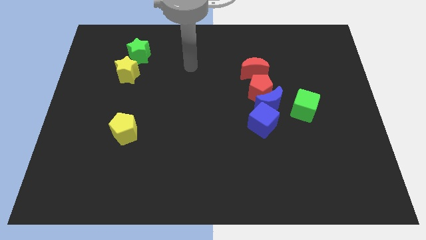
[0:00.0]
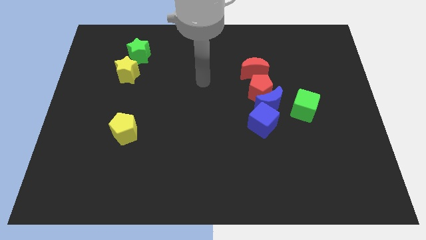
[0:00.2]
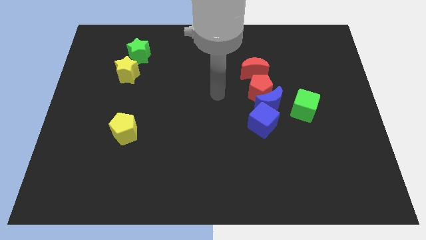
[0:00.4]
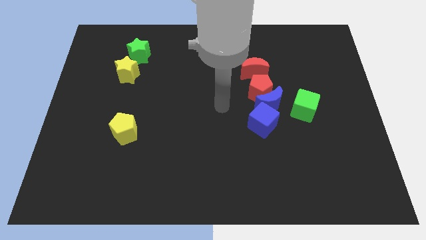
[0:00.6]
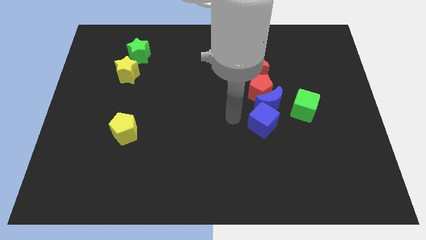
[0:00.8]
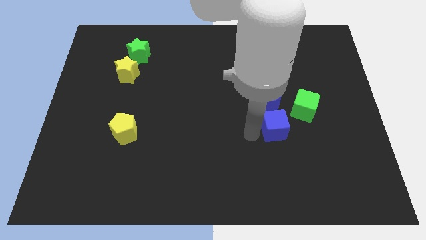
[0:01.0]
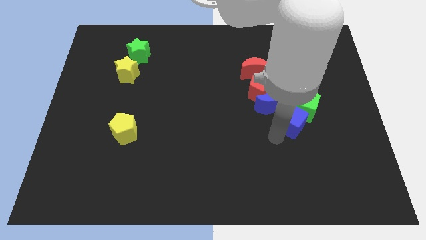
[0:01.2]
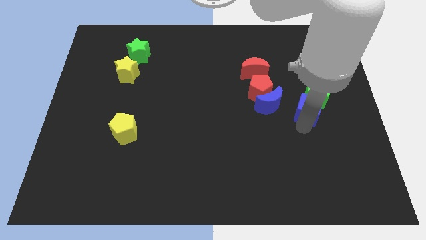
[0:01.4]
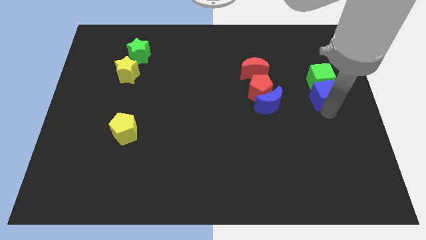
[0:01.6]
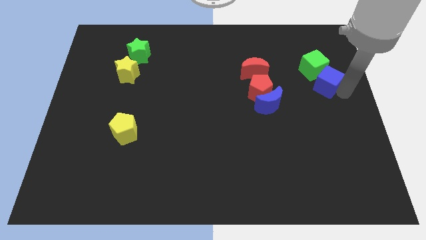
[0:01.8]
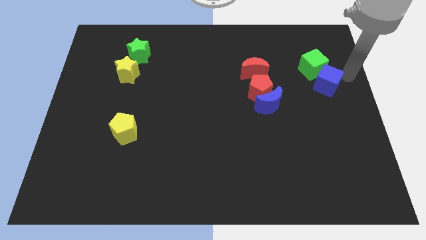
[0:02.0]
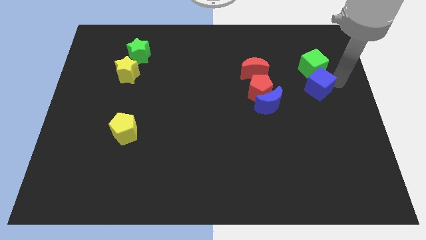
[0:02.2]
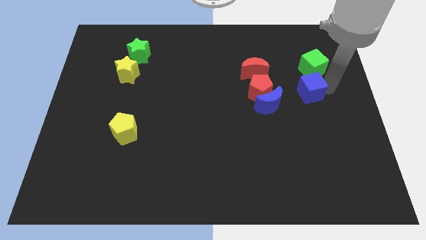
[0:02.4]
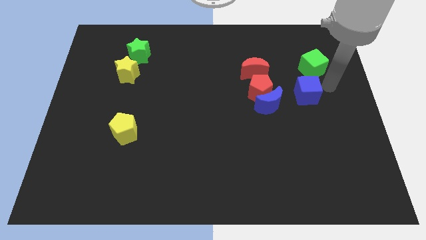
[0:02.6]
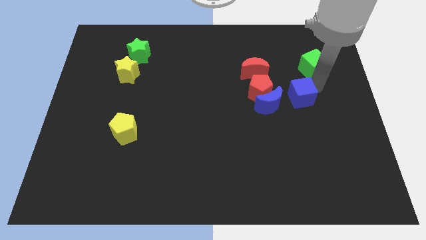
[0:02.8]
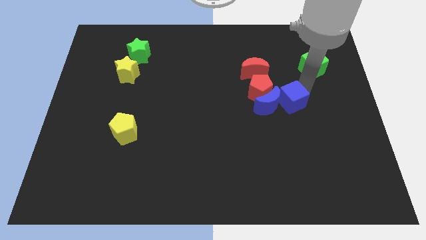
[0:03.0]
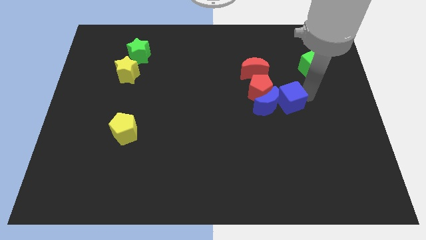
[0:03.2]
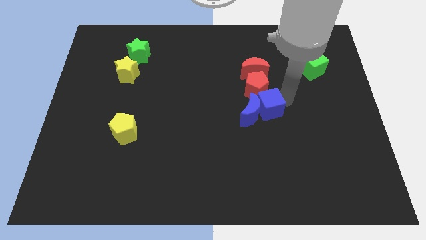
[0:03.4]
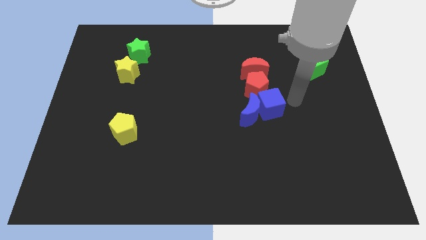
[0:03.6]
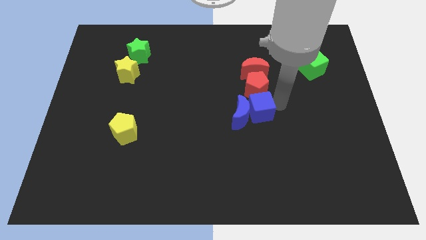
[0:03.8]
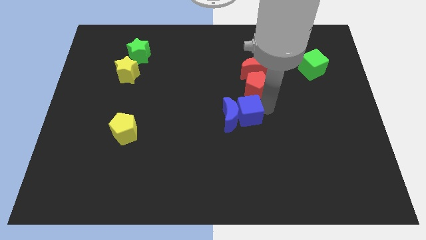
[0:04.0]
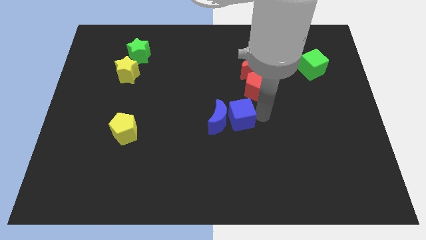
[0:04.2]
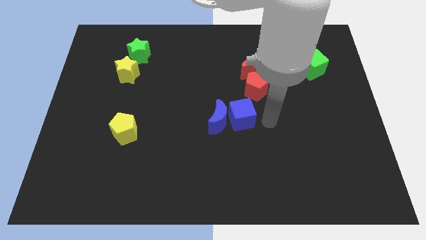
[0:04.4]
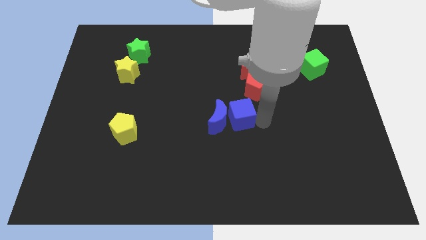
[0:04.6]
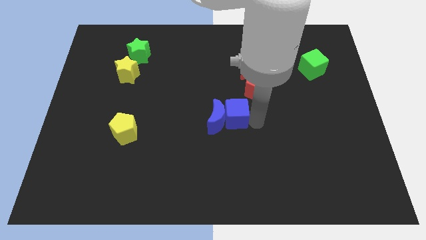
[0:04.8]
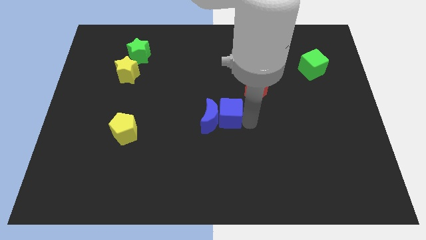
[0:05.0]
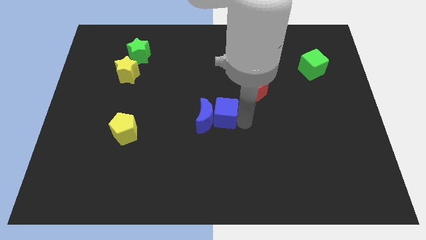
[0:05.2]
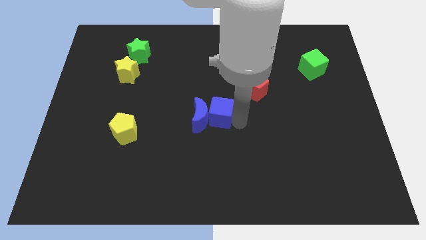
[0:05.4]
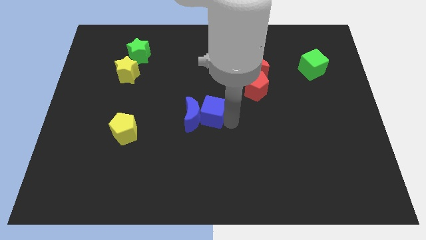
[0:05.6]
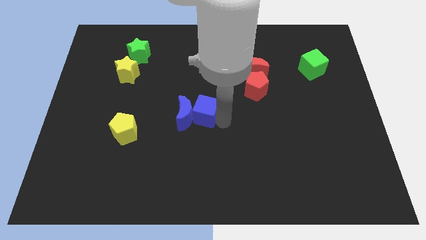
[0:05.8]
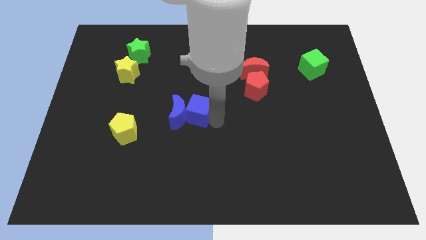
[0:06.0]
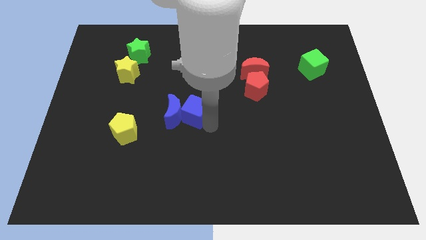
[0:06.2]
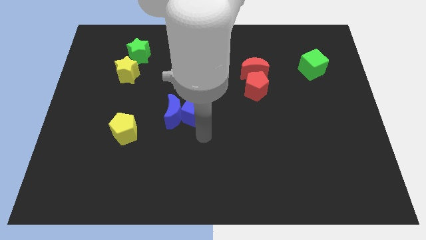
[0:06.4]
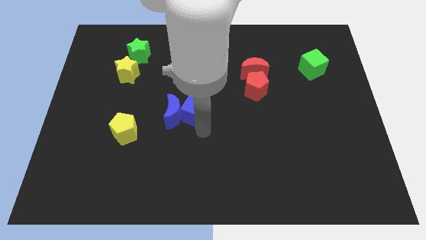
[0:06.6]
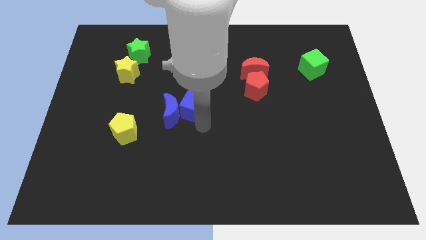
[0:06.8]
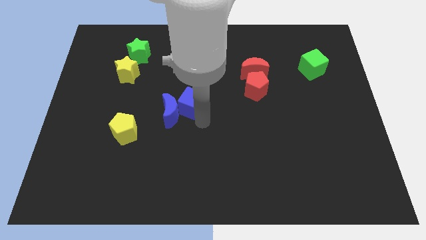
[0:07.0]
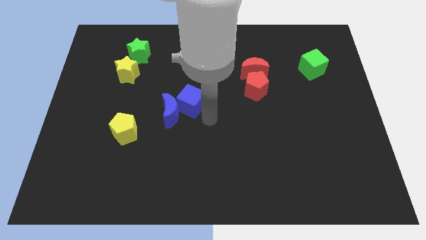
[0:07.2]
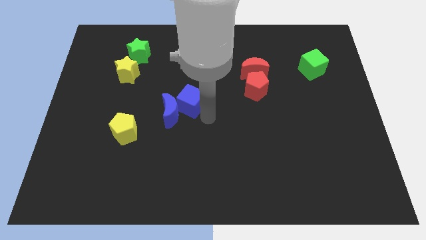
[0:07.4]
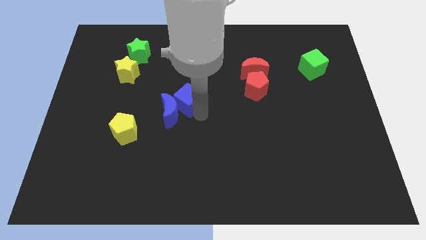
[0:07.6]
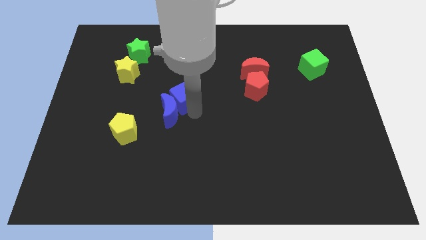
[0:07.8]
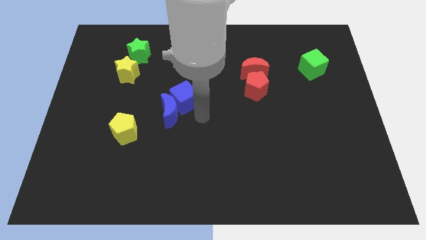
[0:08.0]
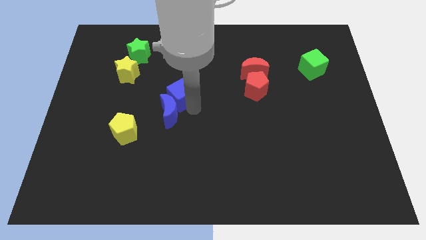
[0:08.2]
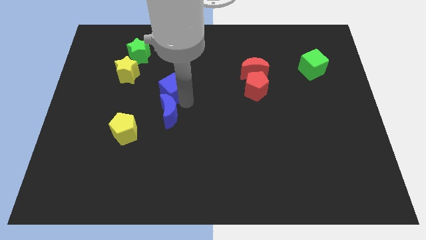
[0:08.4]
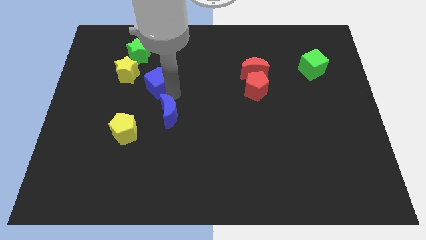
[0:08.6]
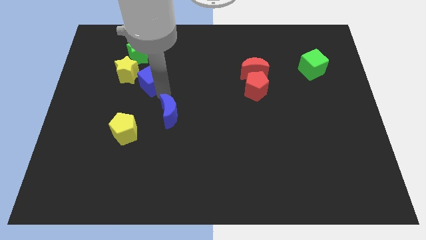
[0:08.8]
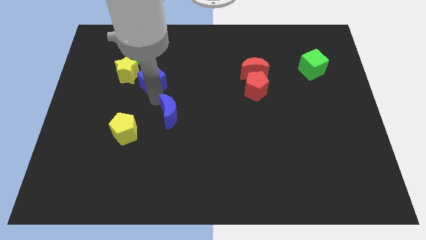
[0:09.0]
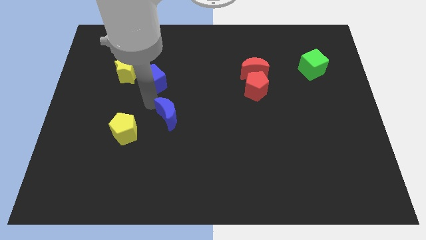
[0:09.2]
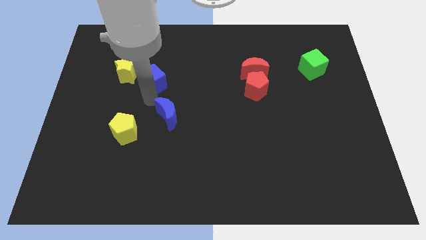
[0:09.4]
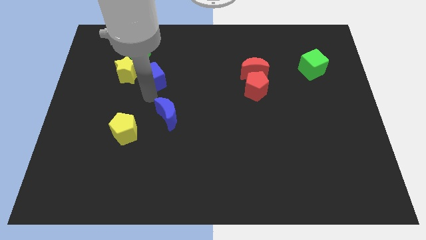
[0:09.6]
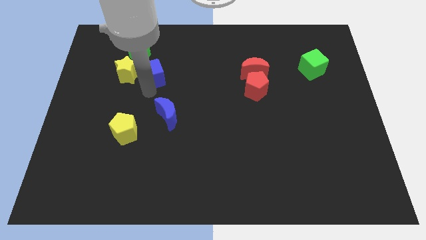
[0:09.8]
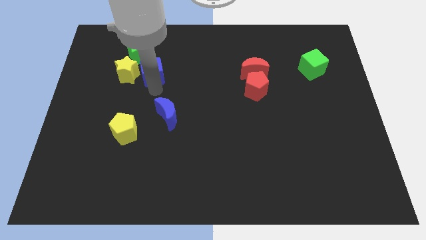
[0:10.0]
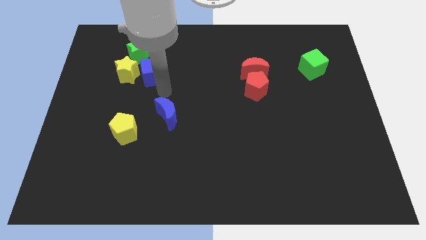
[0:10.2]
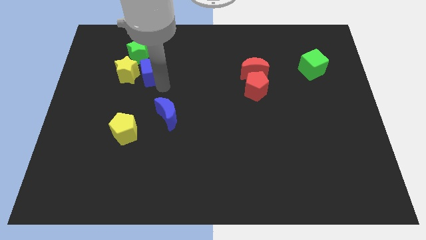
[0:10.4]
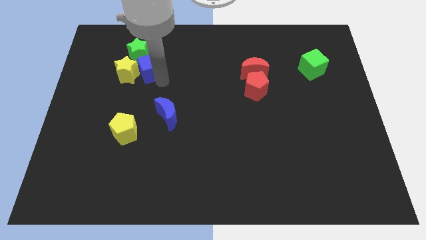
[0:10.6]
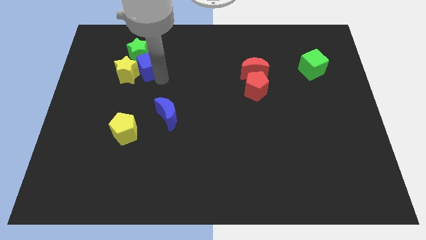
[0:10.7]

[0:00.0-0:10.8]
put the blue cube towards the green star

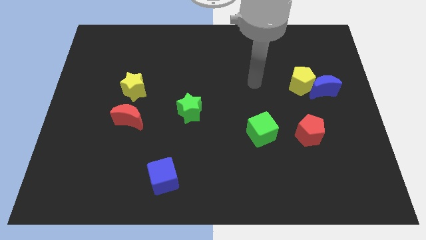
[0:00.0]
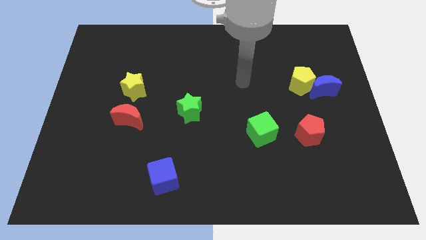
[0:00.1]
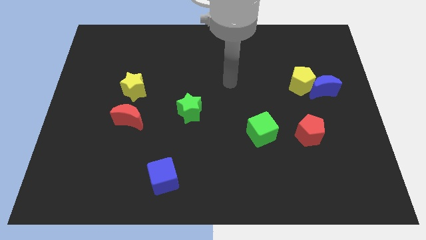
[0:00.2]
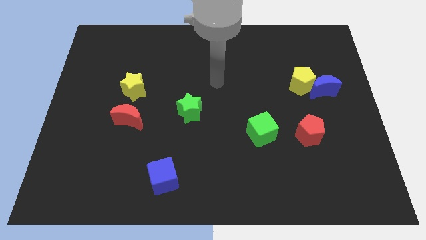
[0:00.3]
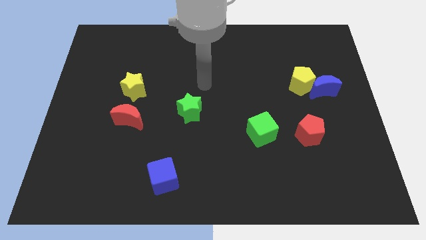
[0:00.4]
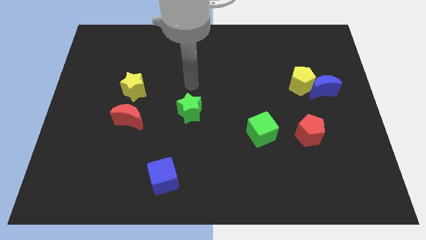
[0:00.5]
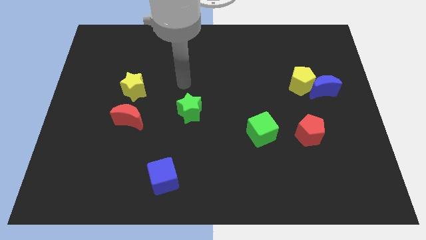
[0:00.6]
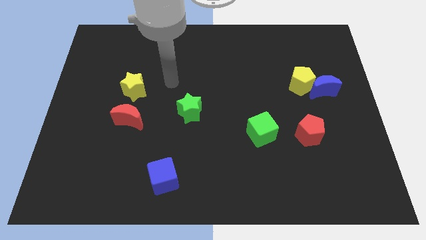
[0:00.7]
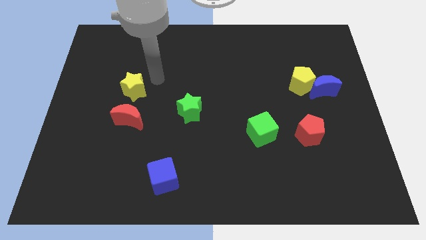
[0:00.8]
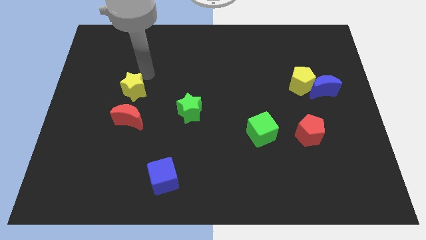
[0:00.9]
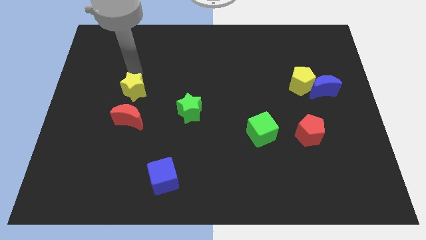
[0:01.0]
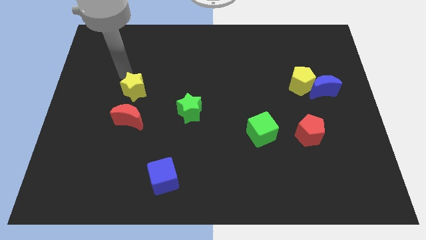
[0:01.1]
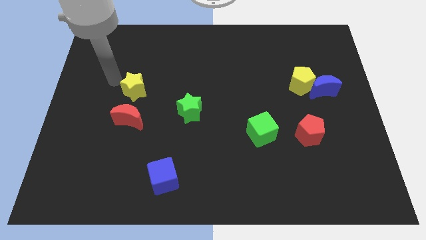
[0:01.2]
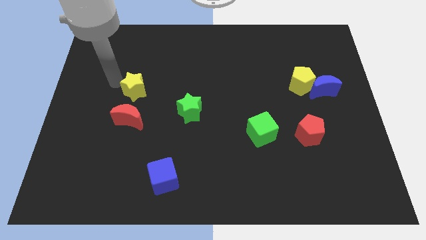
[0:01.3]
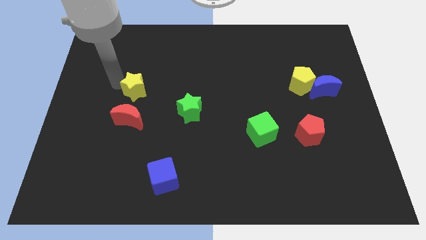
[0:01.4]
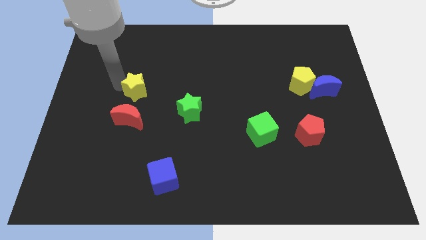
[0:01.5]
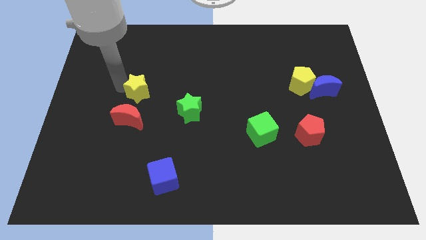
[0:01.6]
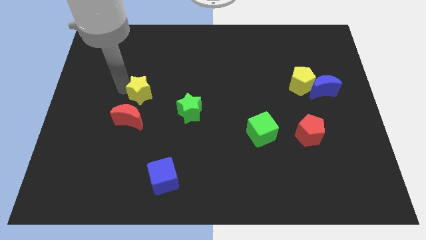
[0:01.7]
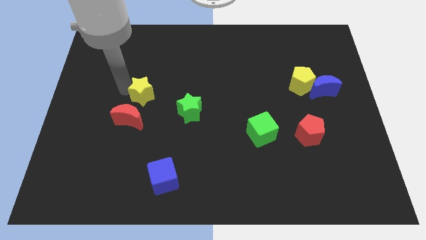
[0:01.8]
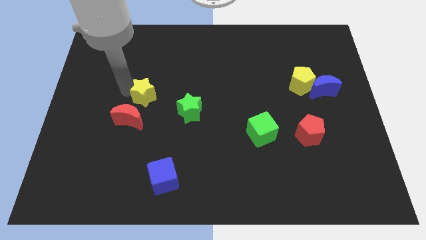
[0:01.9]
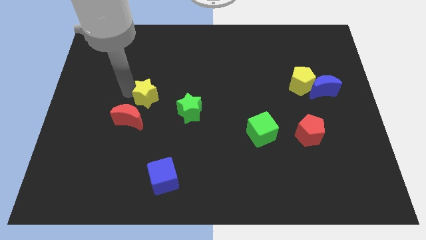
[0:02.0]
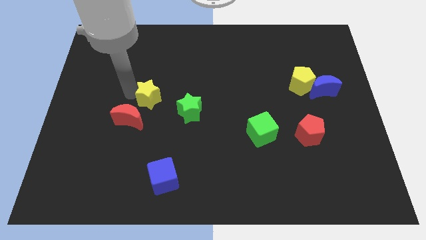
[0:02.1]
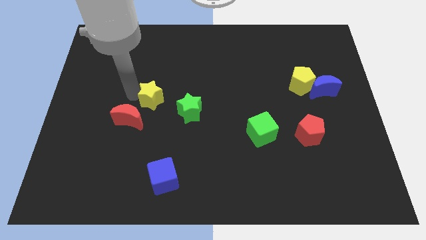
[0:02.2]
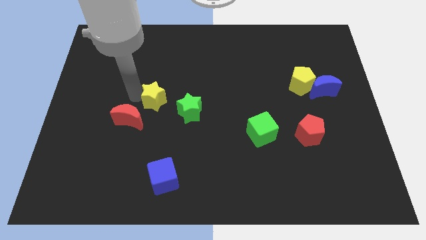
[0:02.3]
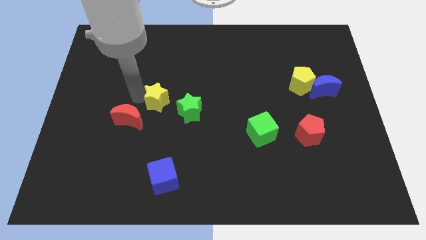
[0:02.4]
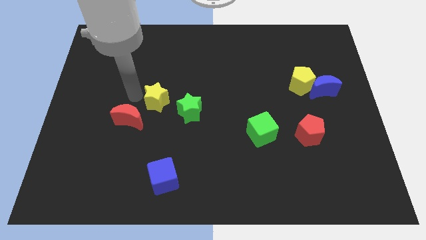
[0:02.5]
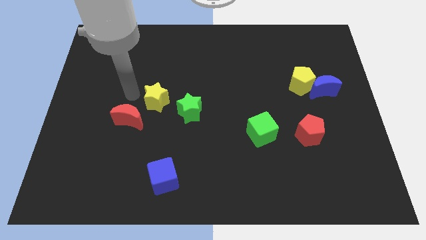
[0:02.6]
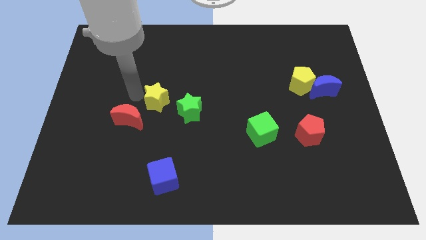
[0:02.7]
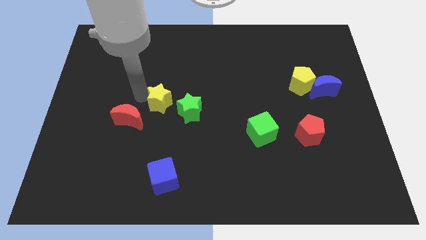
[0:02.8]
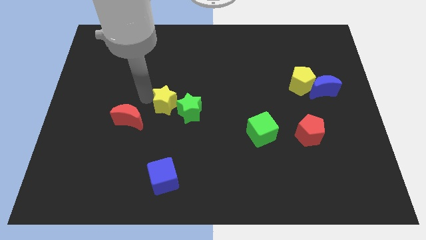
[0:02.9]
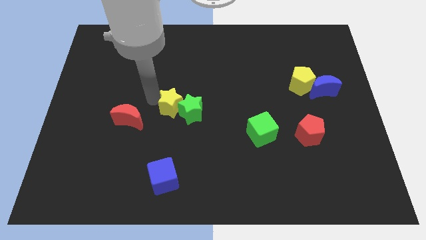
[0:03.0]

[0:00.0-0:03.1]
slide the yellow star next to the green star
